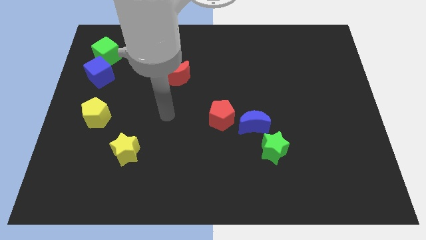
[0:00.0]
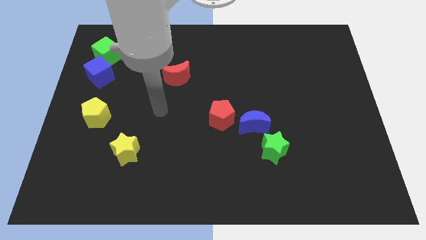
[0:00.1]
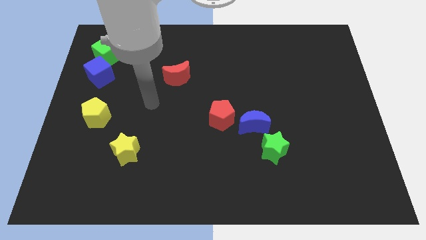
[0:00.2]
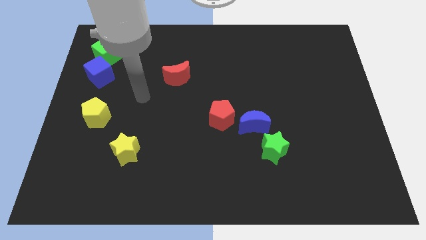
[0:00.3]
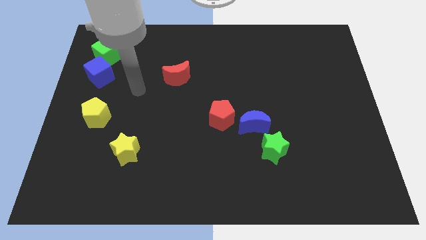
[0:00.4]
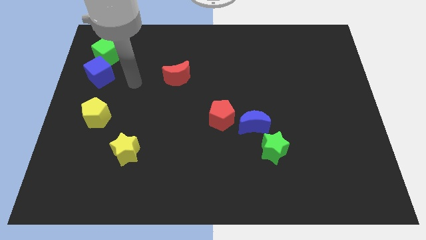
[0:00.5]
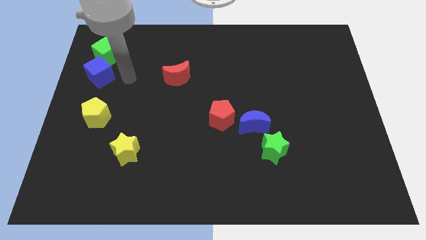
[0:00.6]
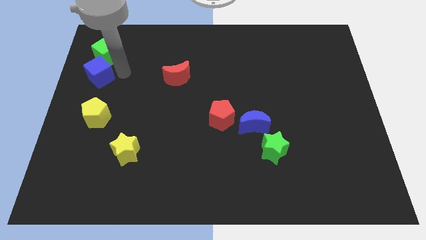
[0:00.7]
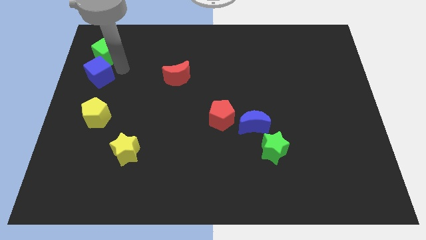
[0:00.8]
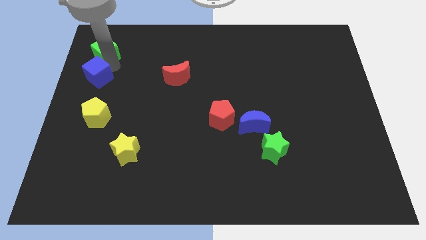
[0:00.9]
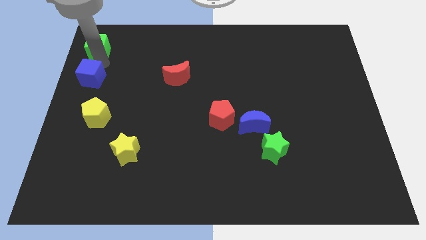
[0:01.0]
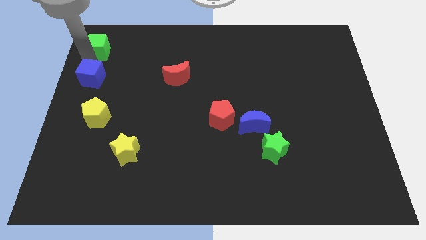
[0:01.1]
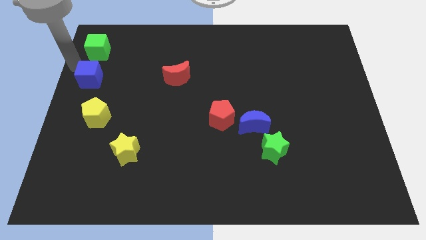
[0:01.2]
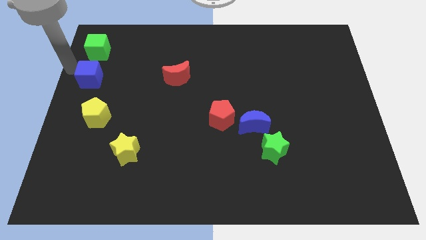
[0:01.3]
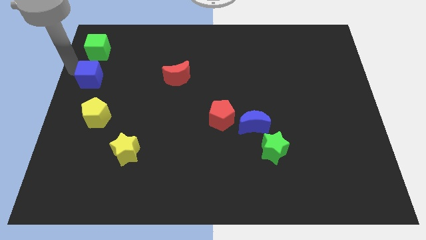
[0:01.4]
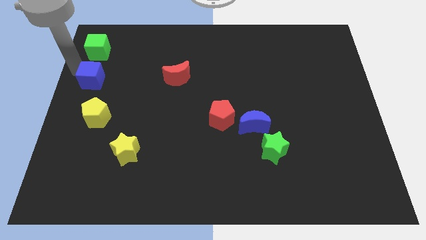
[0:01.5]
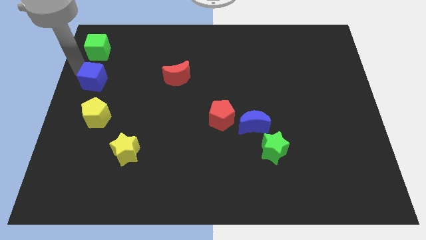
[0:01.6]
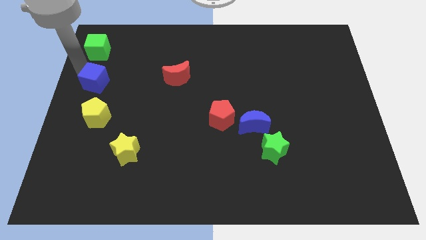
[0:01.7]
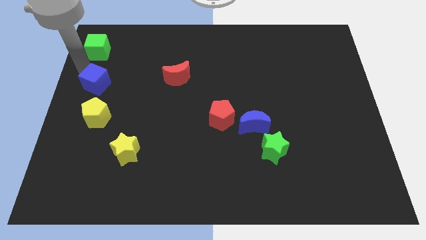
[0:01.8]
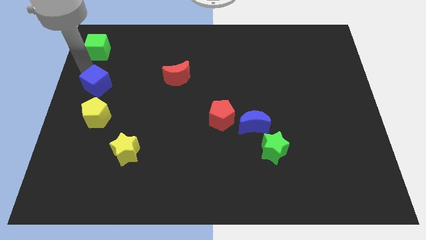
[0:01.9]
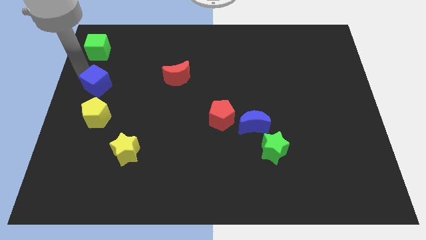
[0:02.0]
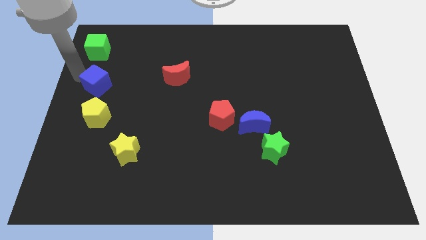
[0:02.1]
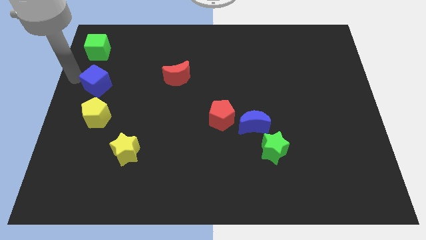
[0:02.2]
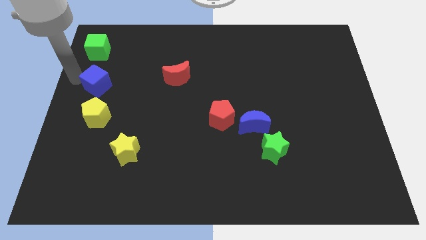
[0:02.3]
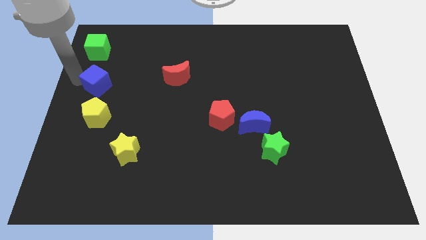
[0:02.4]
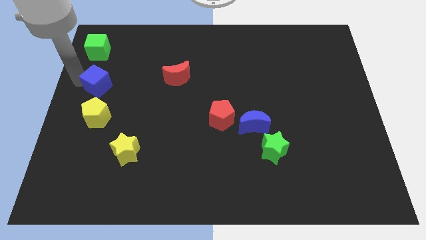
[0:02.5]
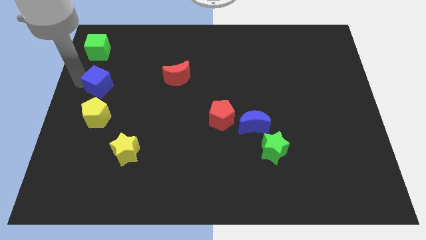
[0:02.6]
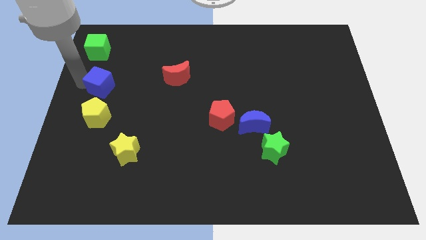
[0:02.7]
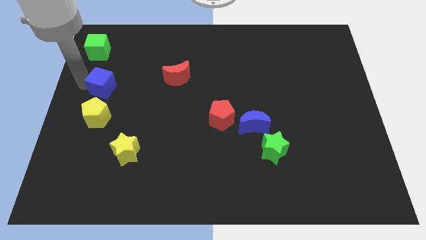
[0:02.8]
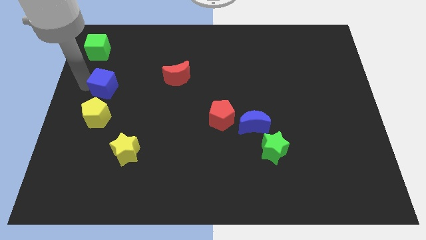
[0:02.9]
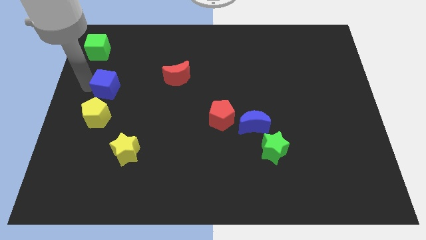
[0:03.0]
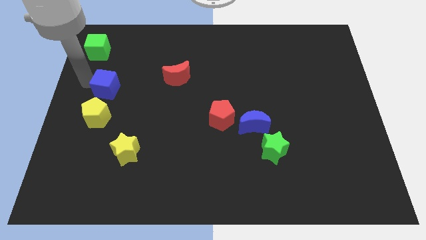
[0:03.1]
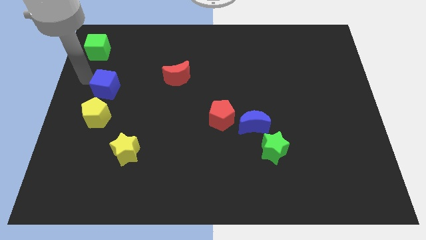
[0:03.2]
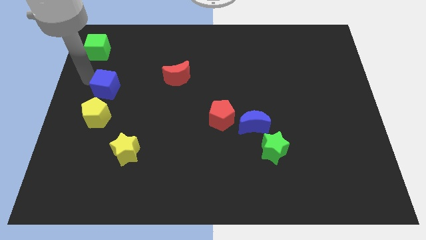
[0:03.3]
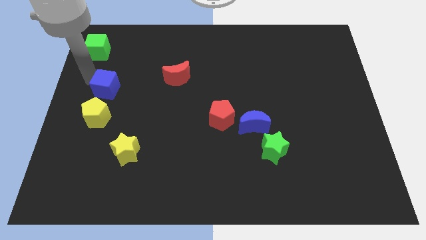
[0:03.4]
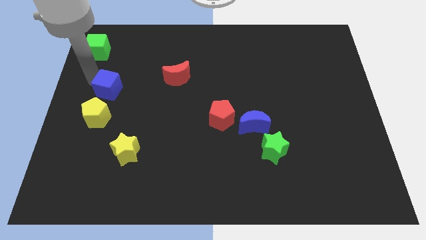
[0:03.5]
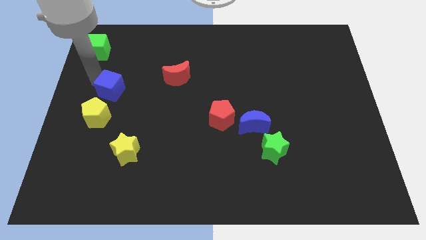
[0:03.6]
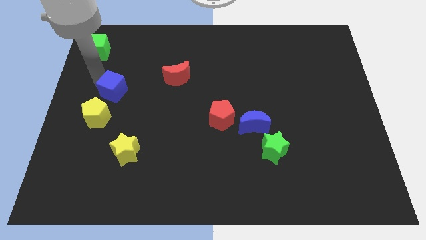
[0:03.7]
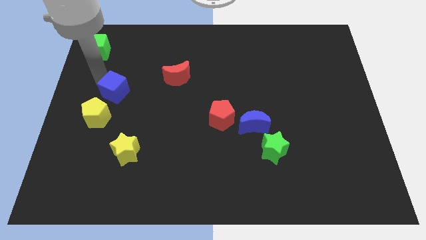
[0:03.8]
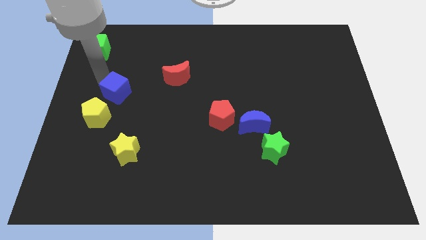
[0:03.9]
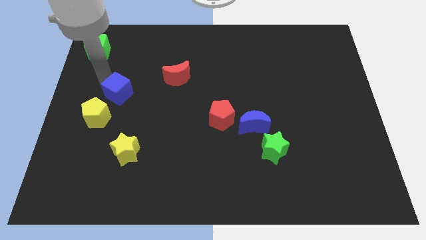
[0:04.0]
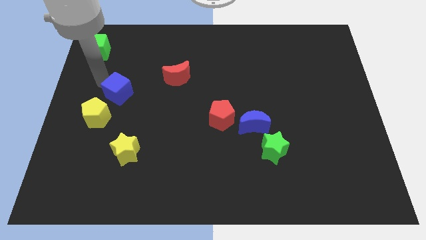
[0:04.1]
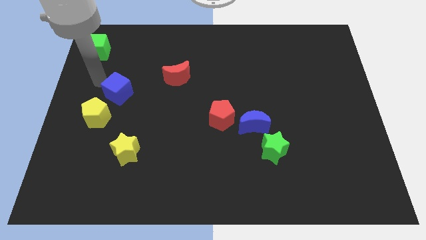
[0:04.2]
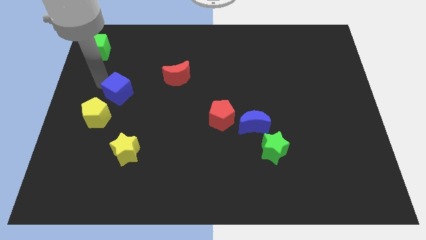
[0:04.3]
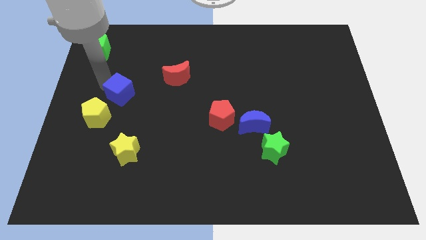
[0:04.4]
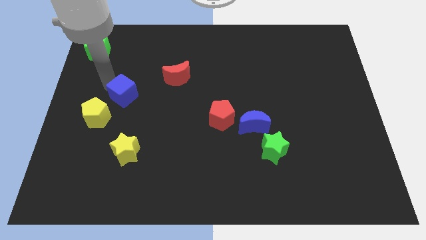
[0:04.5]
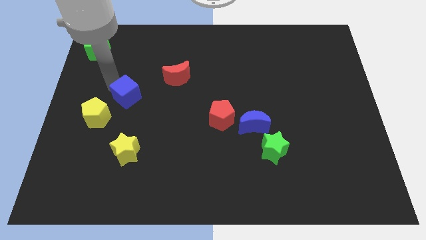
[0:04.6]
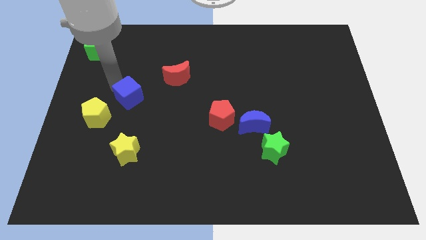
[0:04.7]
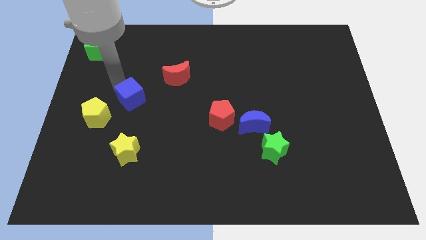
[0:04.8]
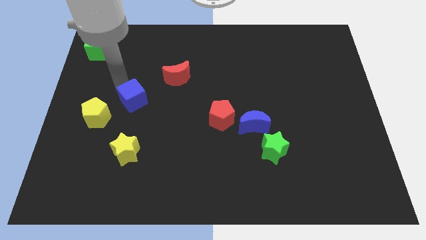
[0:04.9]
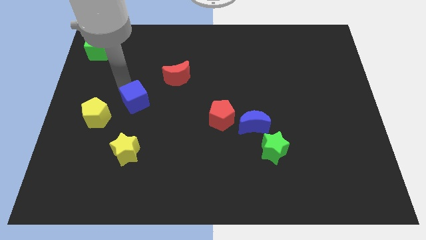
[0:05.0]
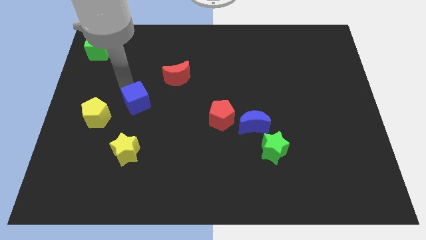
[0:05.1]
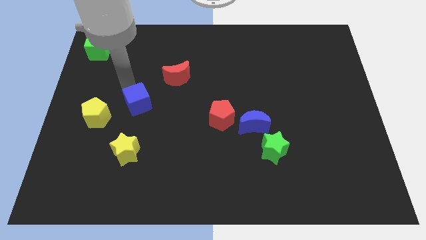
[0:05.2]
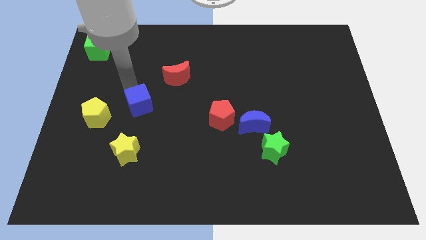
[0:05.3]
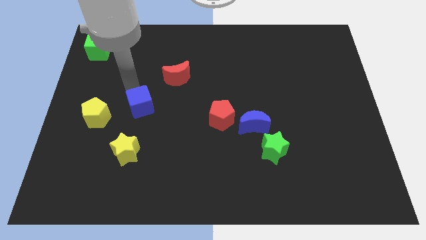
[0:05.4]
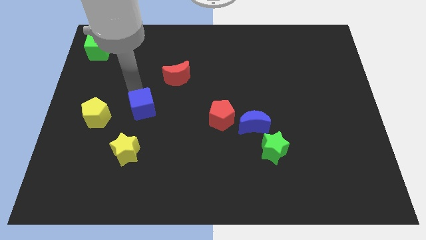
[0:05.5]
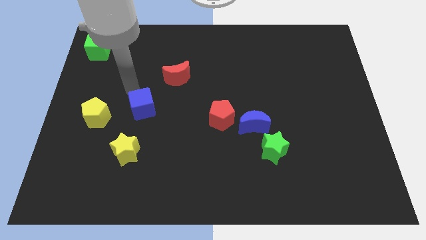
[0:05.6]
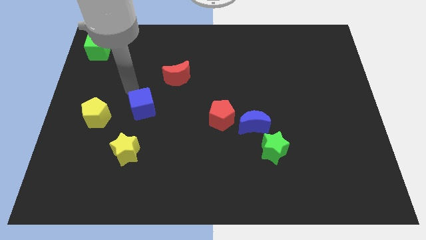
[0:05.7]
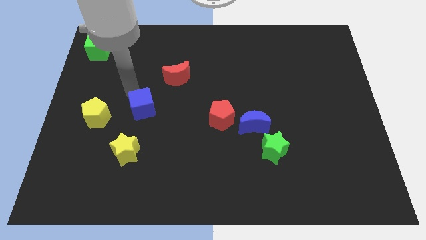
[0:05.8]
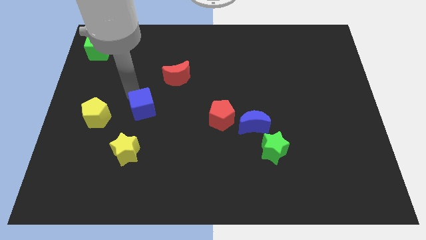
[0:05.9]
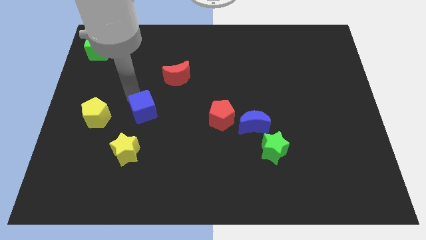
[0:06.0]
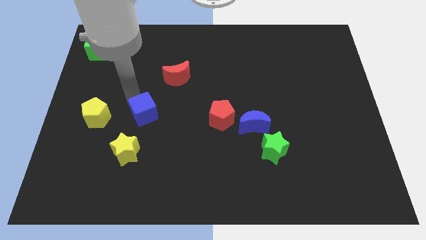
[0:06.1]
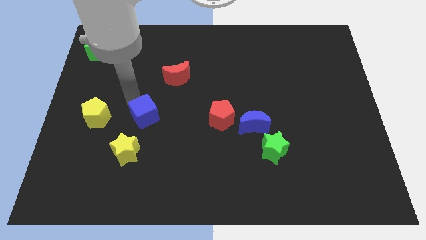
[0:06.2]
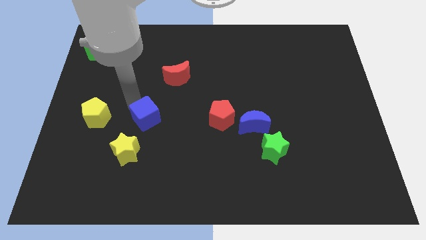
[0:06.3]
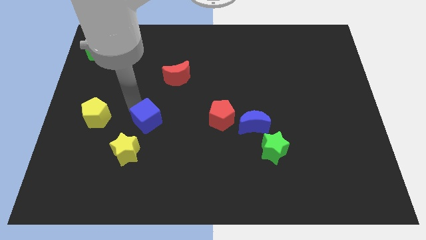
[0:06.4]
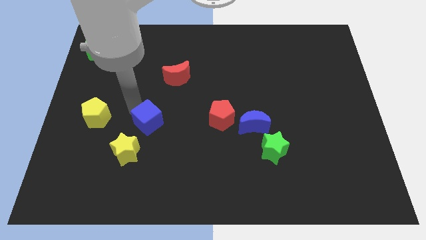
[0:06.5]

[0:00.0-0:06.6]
move the blue cube downwards and then to the right

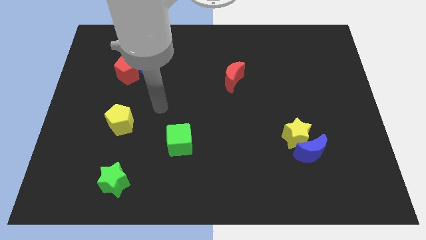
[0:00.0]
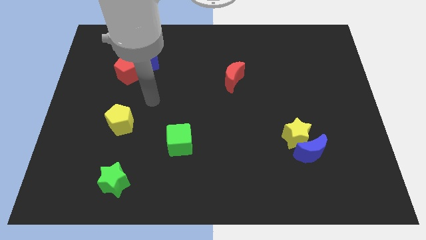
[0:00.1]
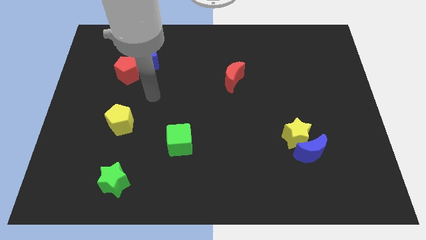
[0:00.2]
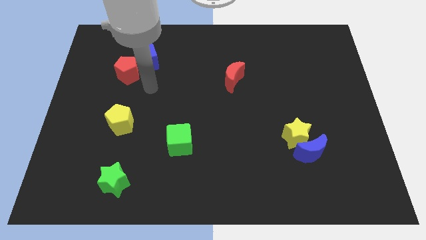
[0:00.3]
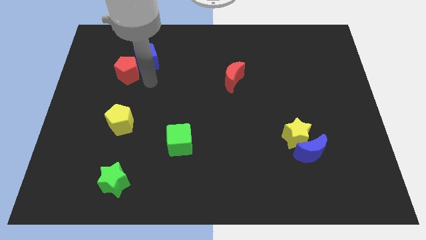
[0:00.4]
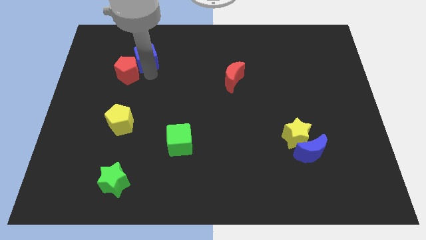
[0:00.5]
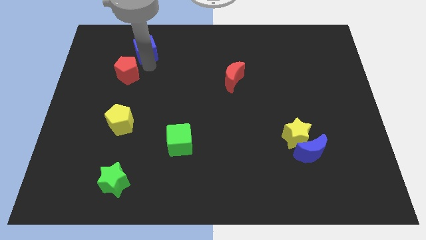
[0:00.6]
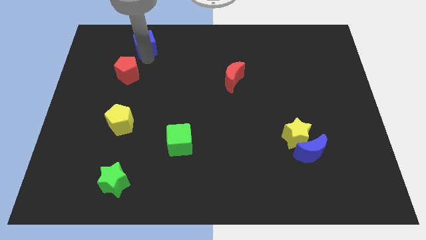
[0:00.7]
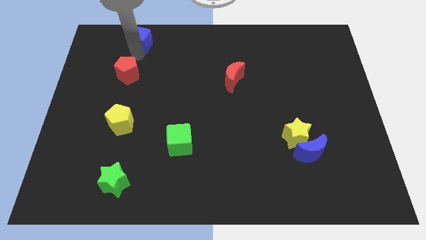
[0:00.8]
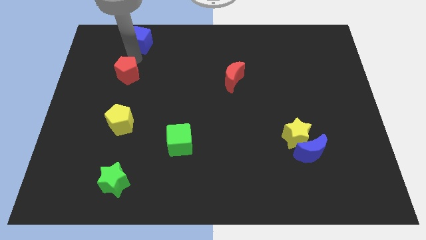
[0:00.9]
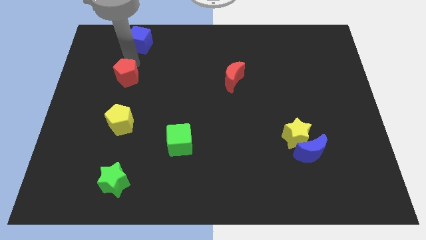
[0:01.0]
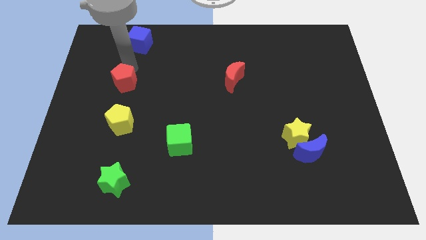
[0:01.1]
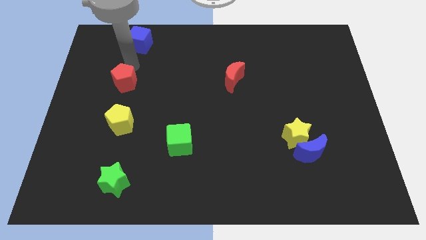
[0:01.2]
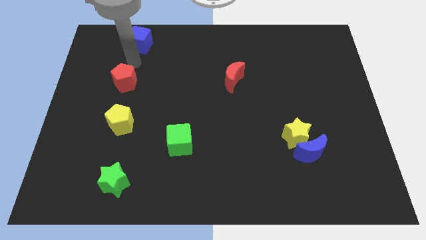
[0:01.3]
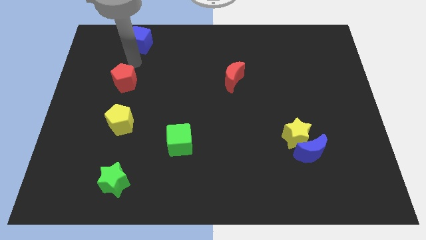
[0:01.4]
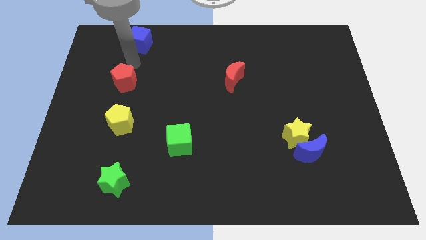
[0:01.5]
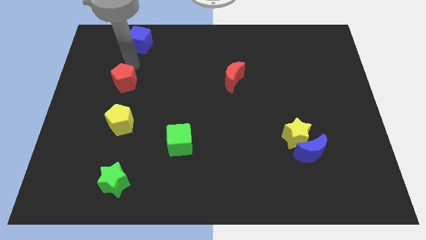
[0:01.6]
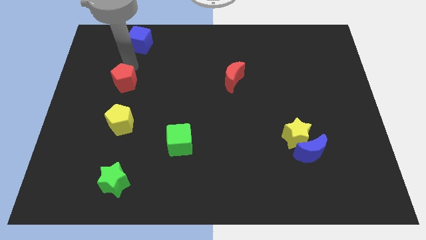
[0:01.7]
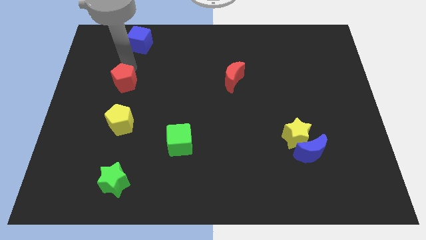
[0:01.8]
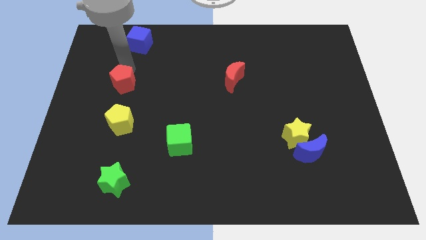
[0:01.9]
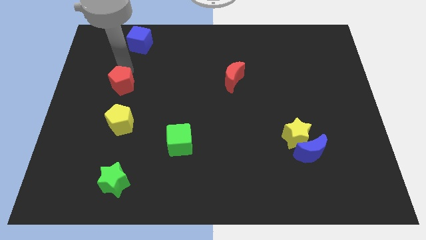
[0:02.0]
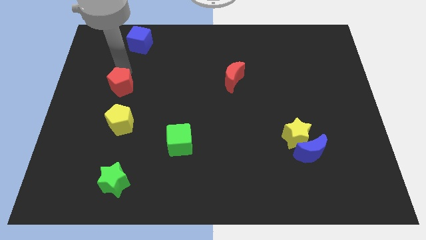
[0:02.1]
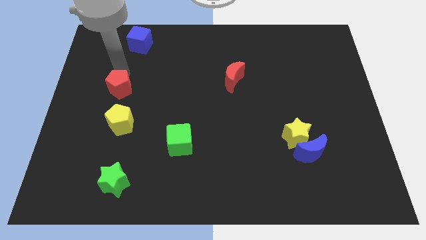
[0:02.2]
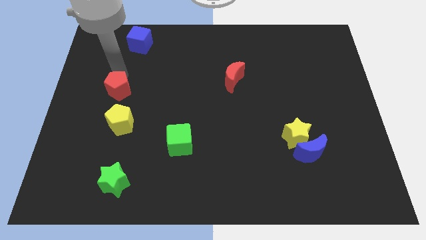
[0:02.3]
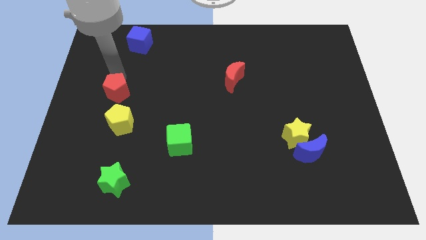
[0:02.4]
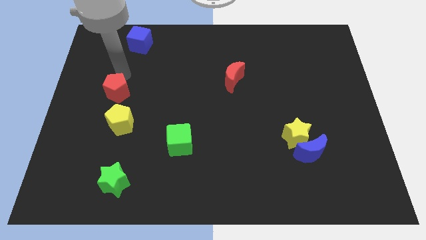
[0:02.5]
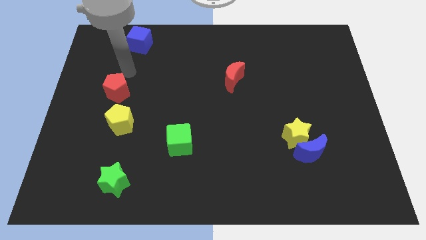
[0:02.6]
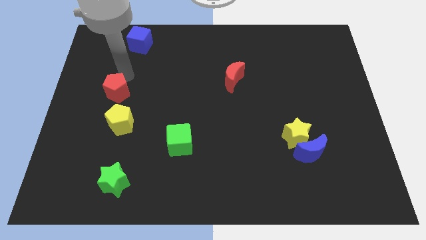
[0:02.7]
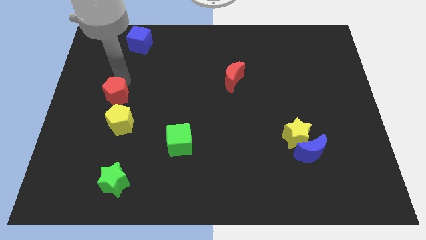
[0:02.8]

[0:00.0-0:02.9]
move the red pentagon slightly down
